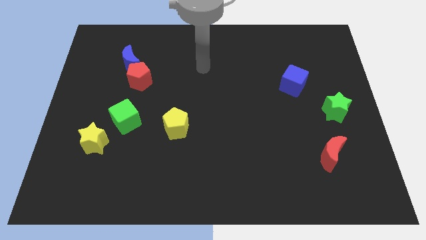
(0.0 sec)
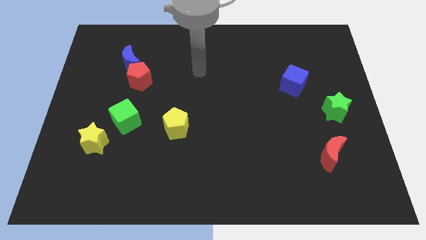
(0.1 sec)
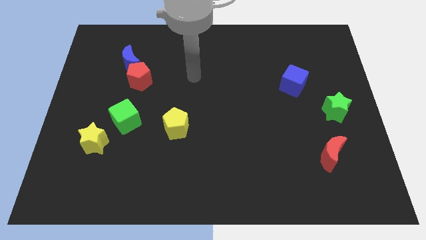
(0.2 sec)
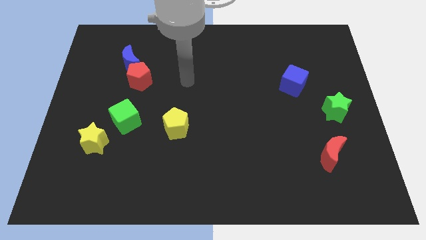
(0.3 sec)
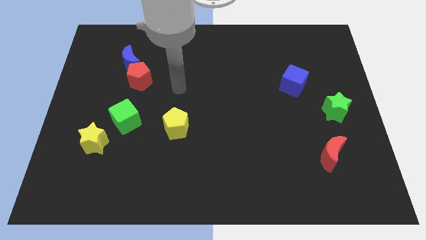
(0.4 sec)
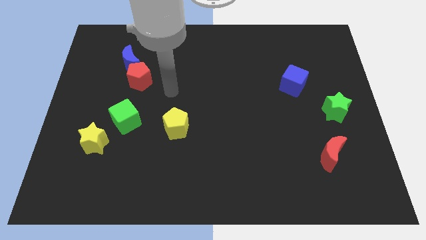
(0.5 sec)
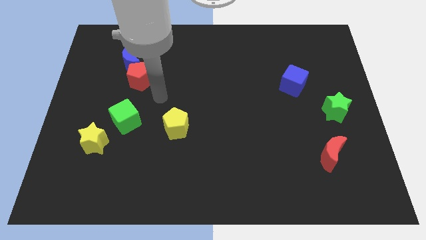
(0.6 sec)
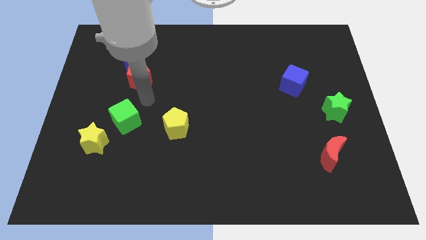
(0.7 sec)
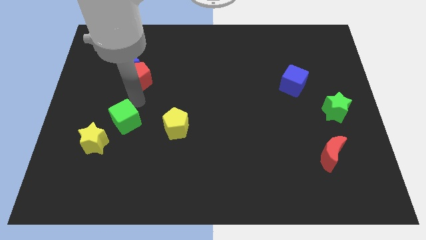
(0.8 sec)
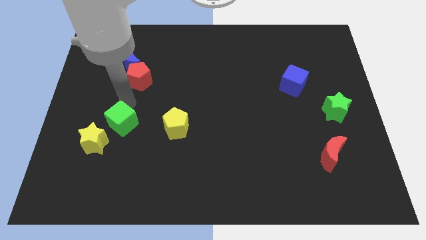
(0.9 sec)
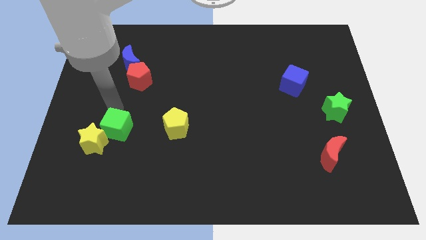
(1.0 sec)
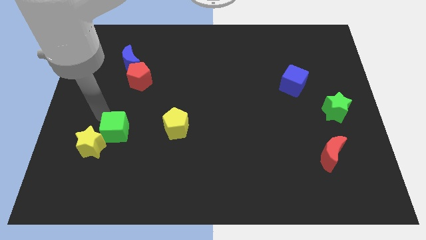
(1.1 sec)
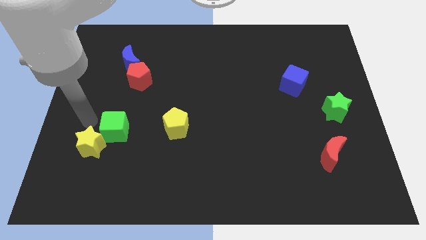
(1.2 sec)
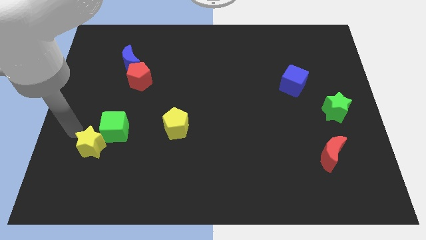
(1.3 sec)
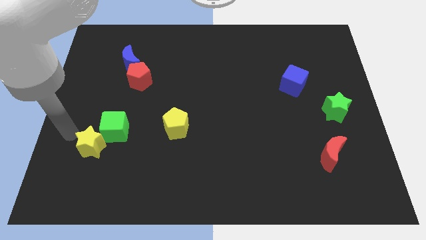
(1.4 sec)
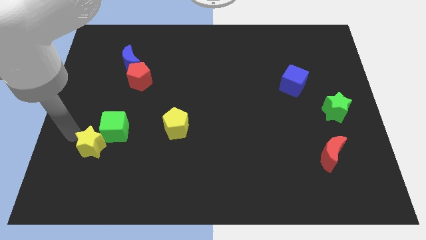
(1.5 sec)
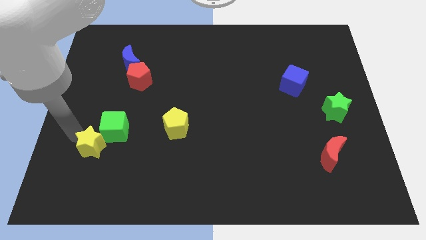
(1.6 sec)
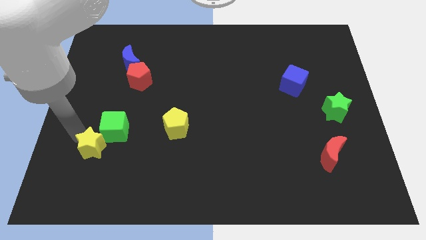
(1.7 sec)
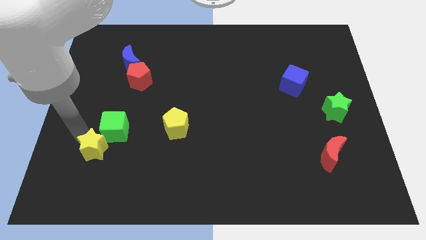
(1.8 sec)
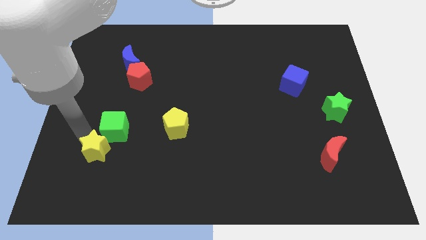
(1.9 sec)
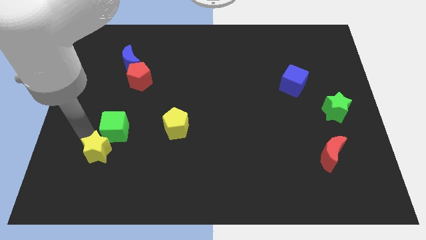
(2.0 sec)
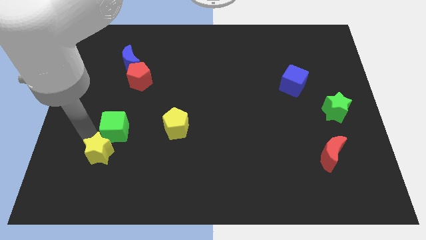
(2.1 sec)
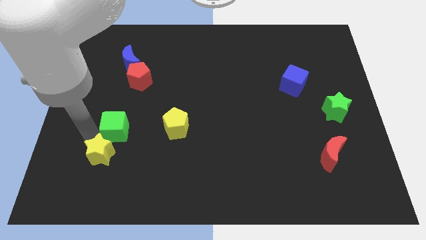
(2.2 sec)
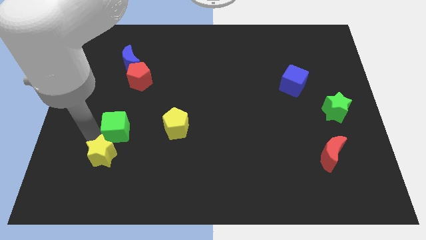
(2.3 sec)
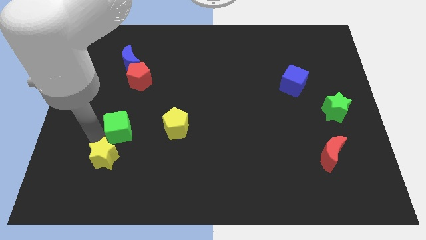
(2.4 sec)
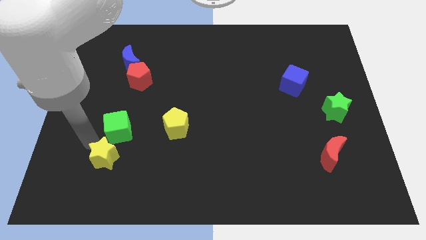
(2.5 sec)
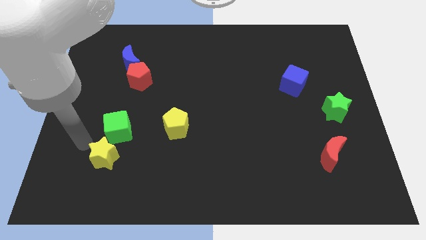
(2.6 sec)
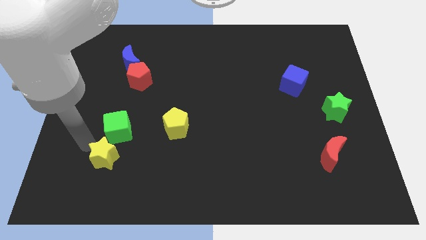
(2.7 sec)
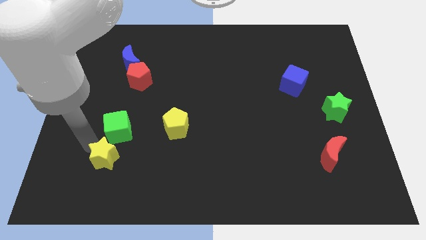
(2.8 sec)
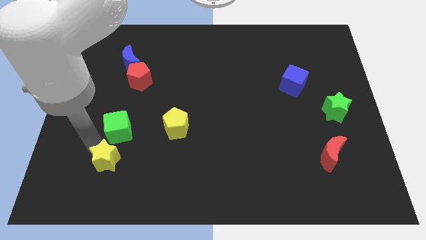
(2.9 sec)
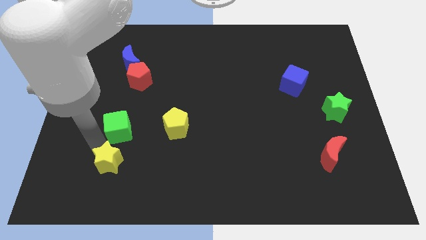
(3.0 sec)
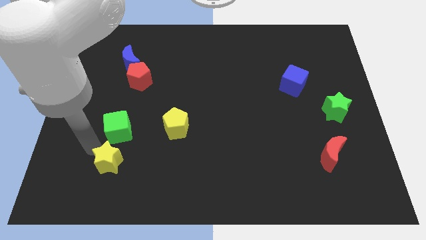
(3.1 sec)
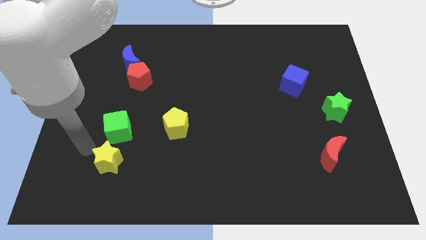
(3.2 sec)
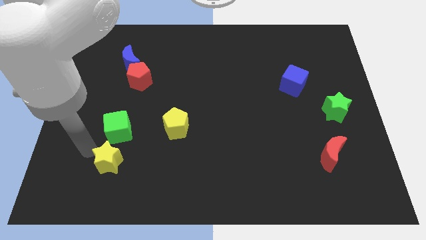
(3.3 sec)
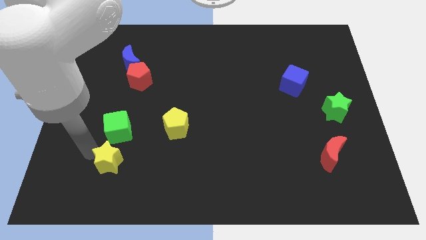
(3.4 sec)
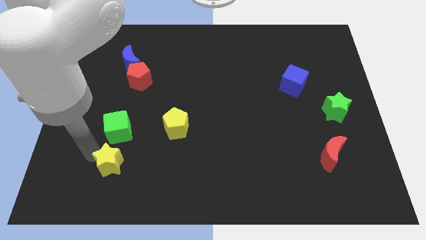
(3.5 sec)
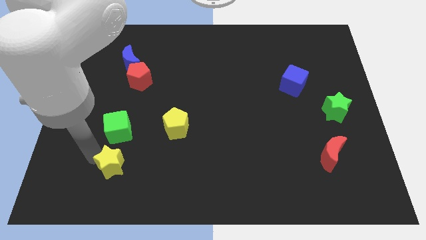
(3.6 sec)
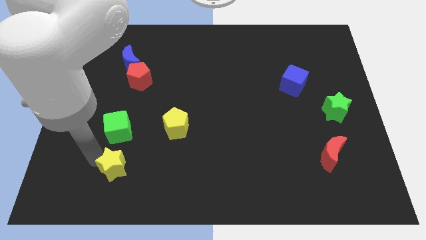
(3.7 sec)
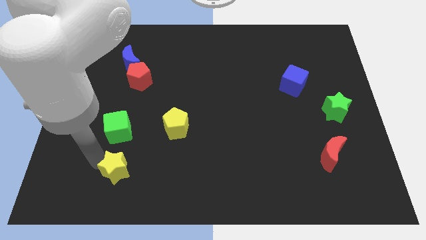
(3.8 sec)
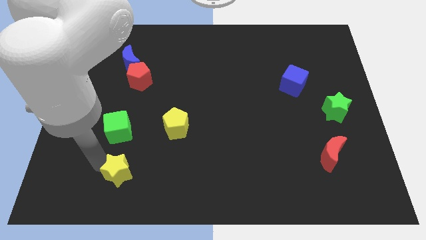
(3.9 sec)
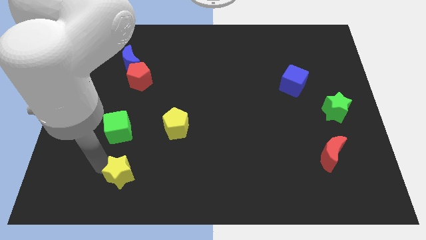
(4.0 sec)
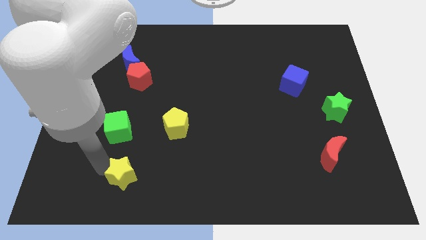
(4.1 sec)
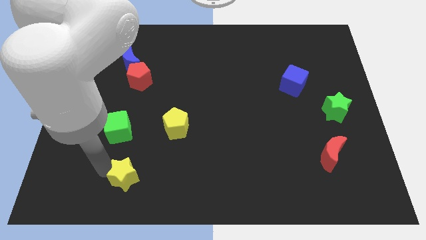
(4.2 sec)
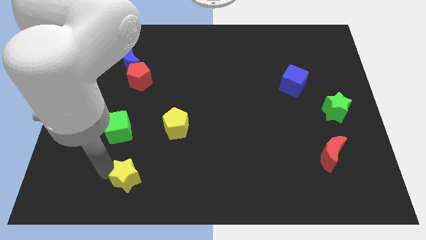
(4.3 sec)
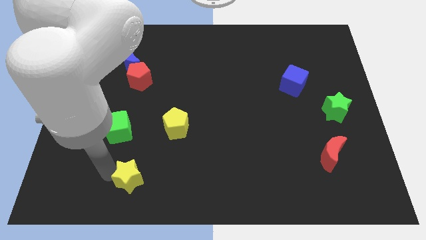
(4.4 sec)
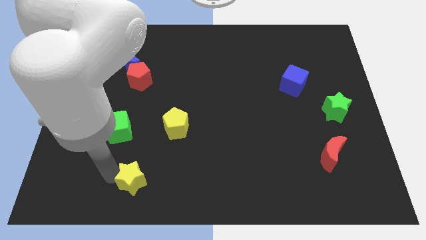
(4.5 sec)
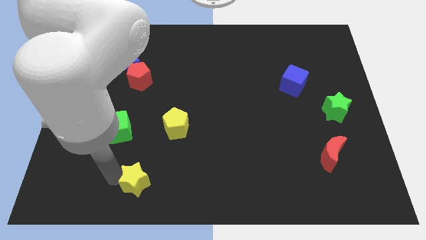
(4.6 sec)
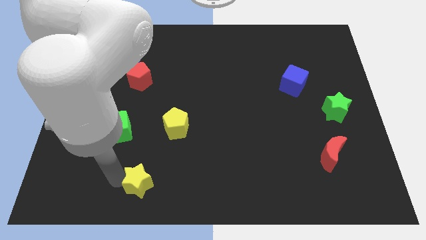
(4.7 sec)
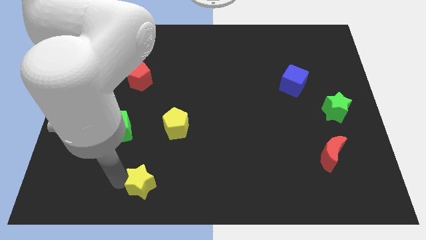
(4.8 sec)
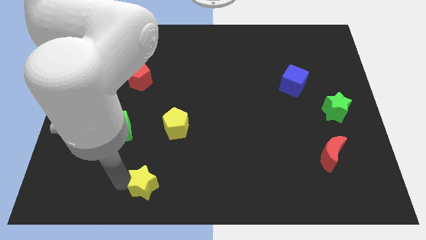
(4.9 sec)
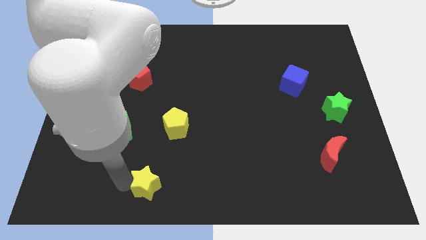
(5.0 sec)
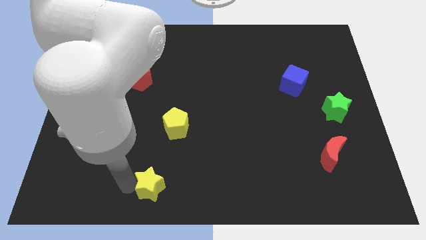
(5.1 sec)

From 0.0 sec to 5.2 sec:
slide the yellow star to the bottom
